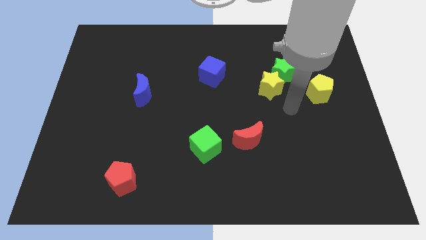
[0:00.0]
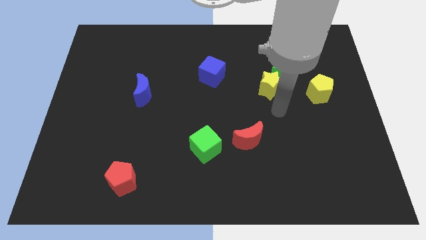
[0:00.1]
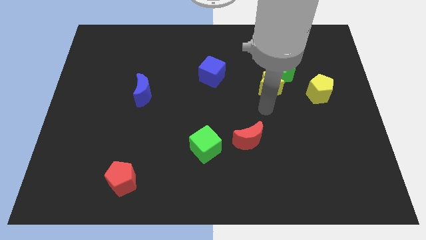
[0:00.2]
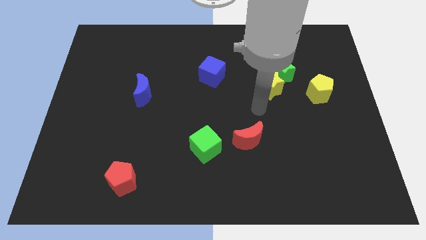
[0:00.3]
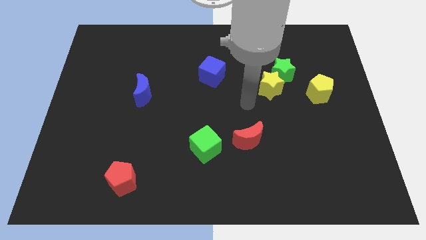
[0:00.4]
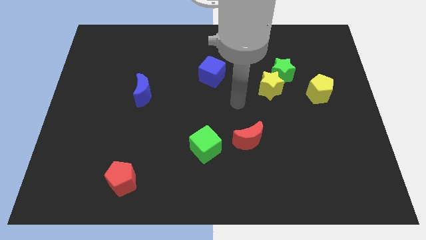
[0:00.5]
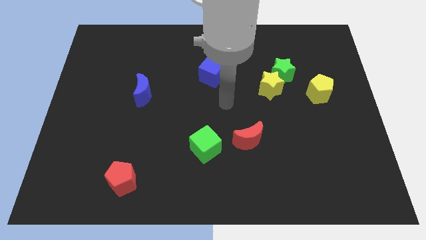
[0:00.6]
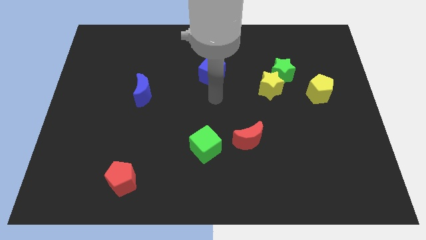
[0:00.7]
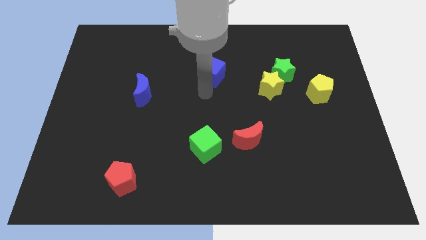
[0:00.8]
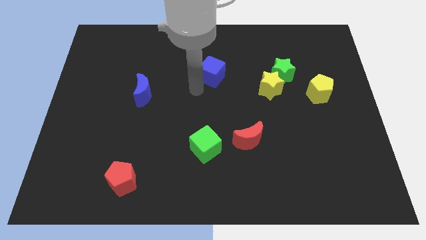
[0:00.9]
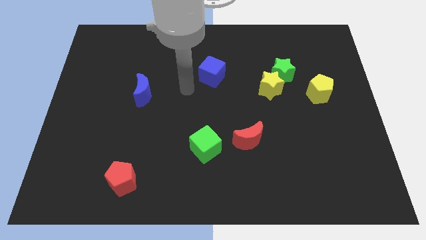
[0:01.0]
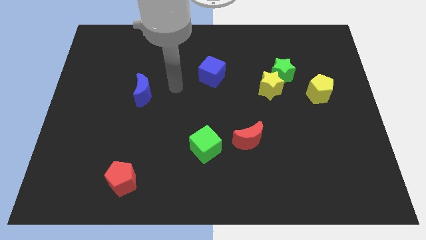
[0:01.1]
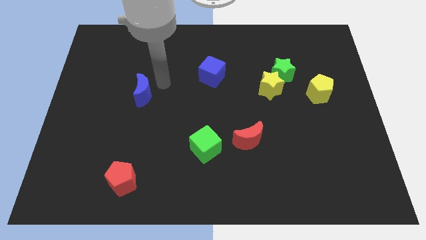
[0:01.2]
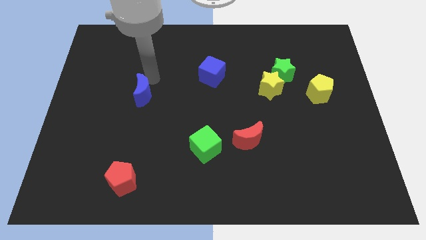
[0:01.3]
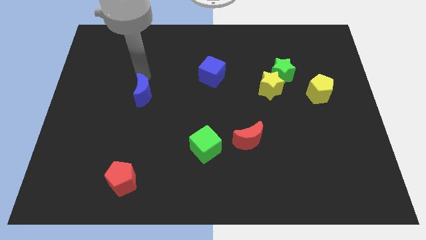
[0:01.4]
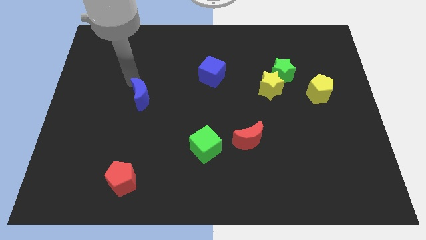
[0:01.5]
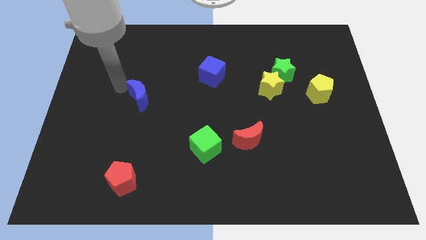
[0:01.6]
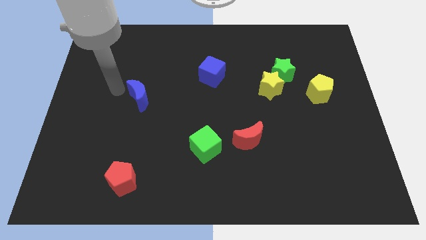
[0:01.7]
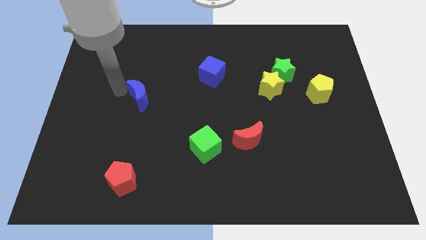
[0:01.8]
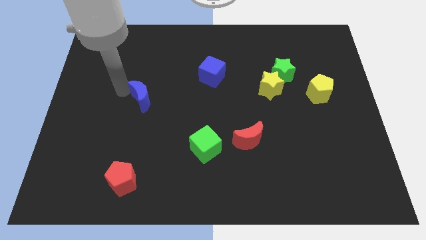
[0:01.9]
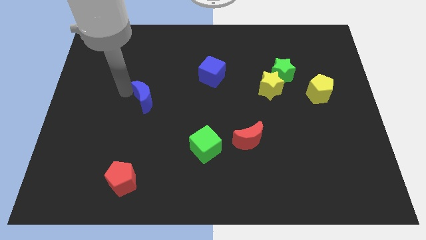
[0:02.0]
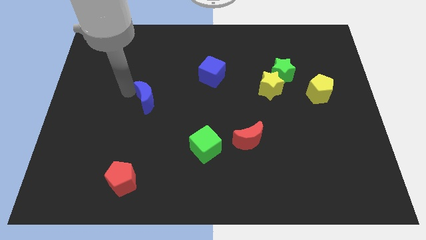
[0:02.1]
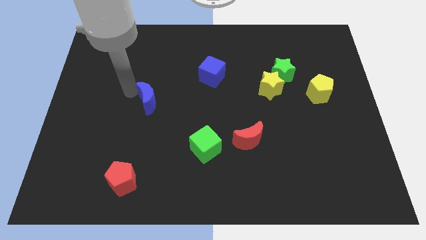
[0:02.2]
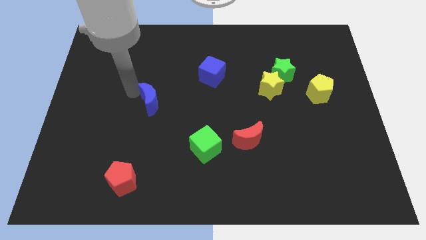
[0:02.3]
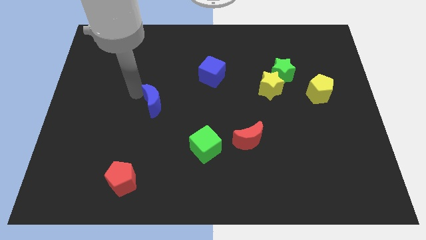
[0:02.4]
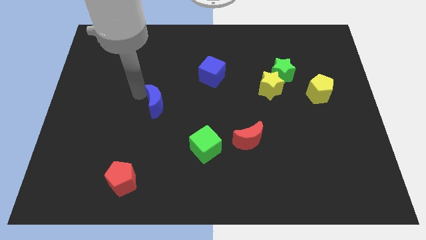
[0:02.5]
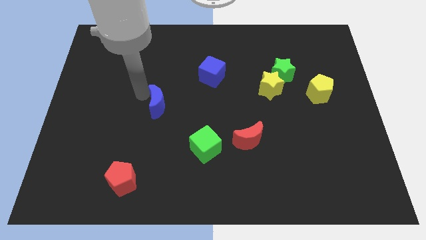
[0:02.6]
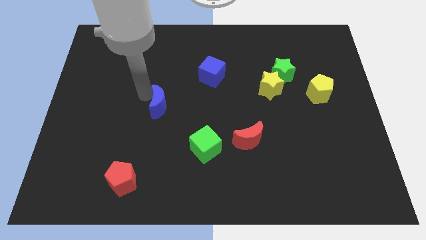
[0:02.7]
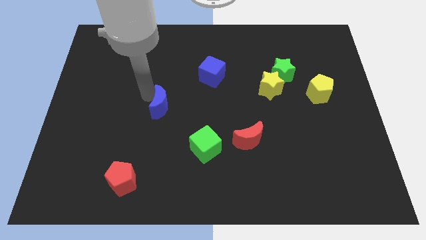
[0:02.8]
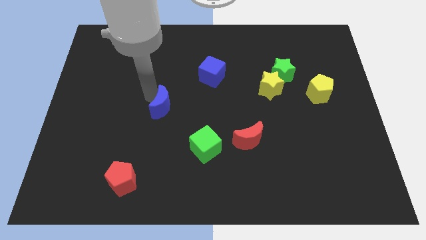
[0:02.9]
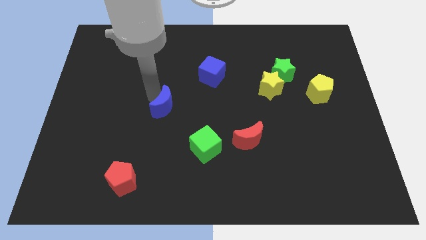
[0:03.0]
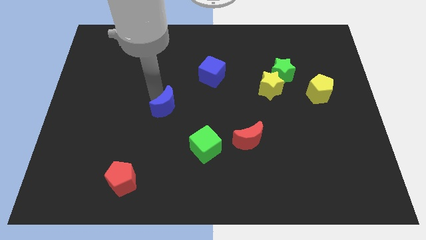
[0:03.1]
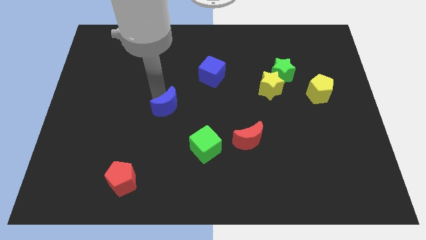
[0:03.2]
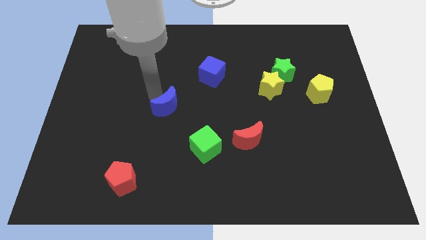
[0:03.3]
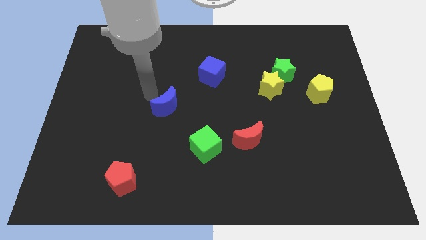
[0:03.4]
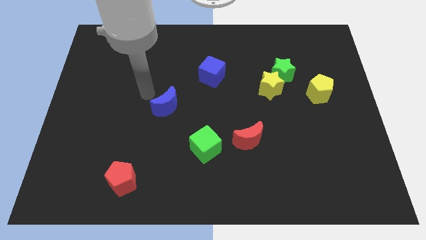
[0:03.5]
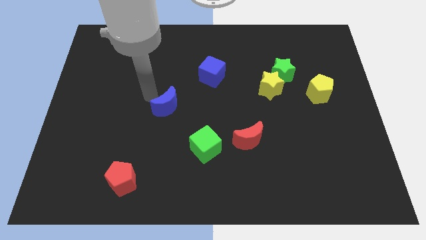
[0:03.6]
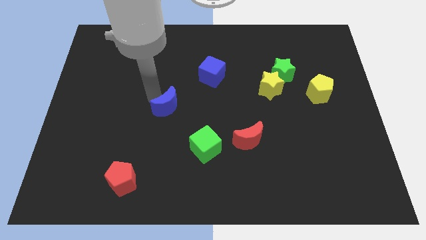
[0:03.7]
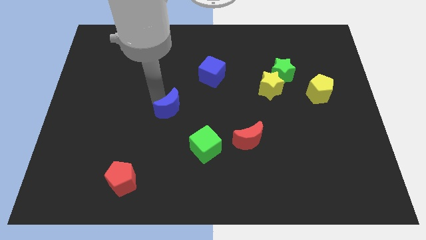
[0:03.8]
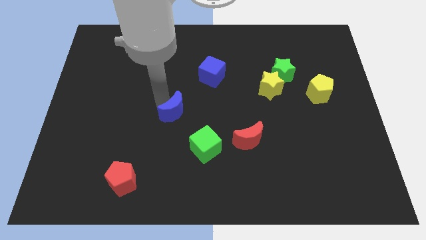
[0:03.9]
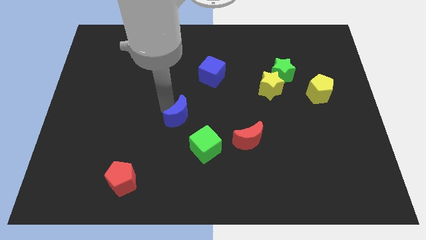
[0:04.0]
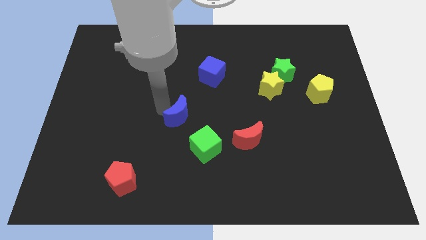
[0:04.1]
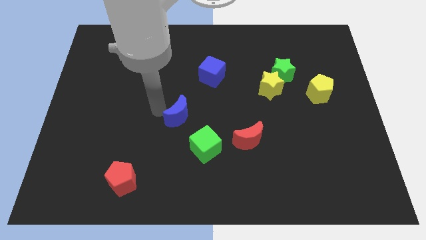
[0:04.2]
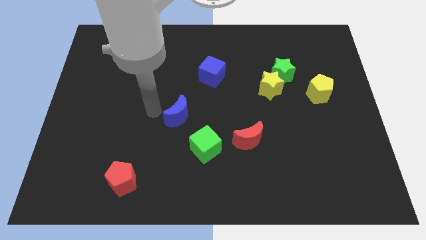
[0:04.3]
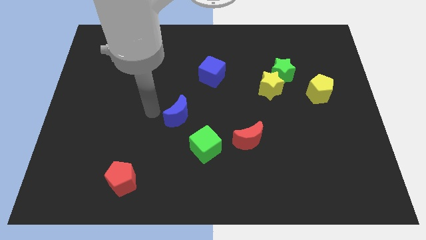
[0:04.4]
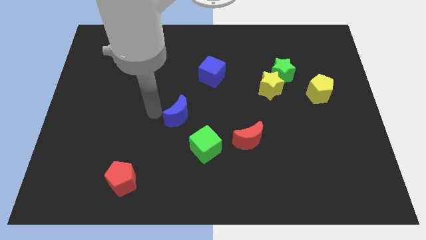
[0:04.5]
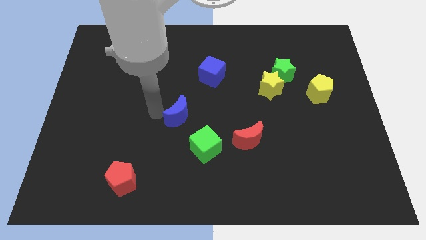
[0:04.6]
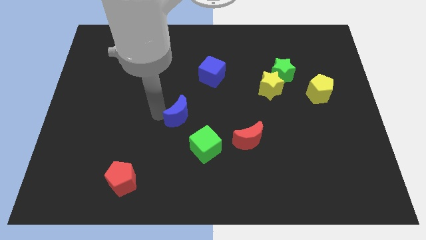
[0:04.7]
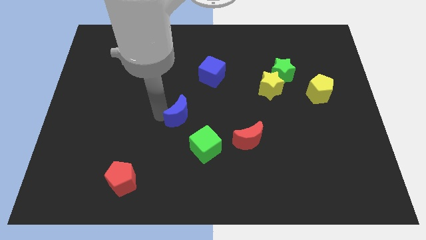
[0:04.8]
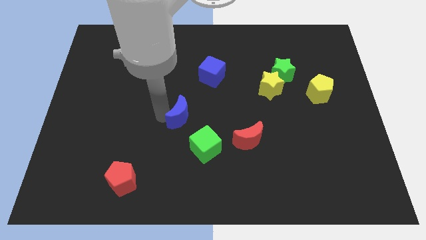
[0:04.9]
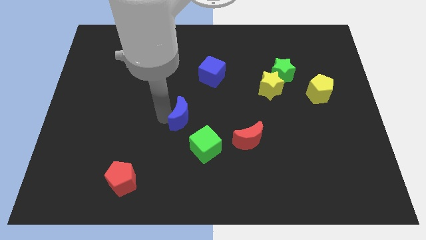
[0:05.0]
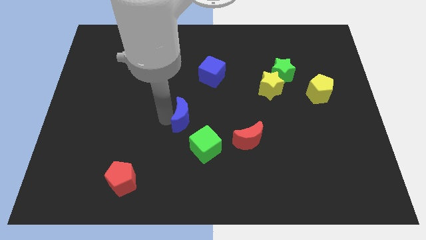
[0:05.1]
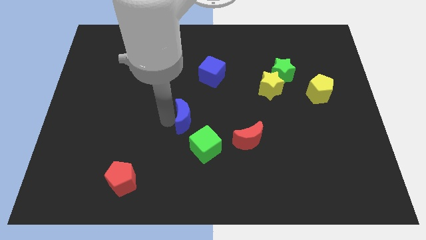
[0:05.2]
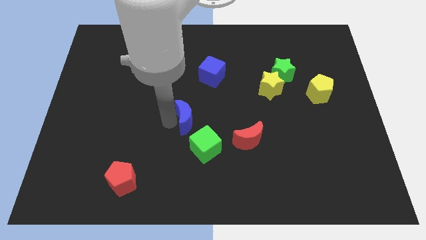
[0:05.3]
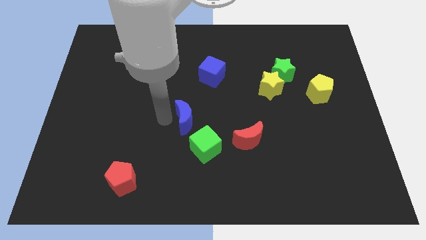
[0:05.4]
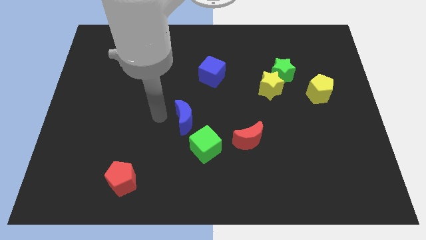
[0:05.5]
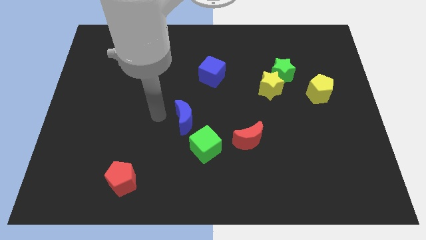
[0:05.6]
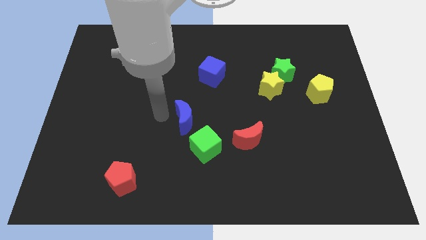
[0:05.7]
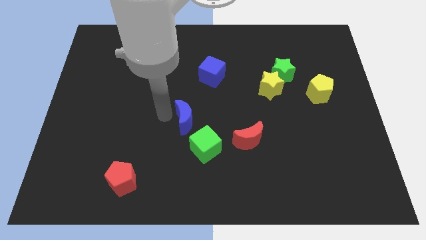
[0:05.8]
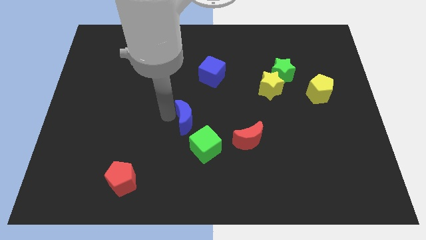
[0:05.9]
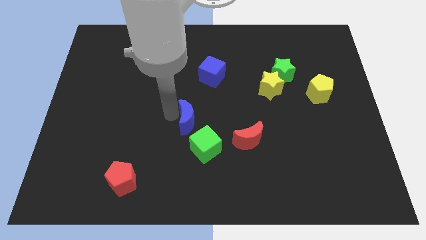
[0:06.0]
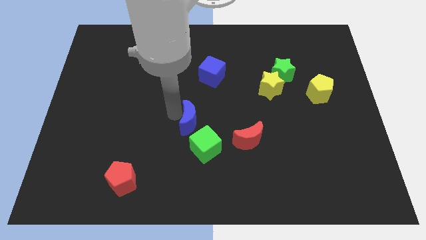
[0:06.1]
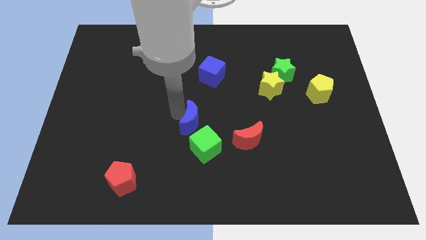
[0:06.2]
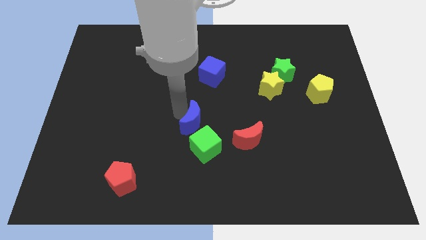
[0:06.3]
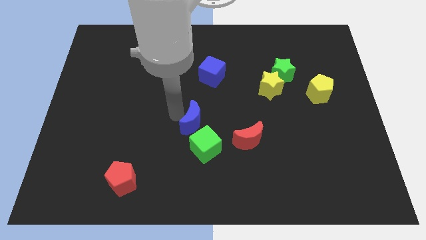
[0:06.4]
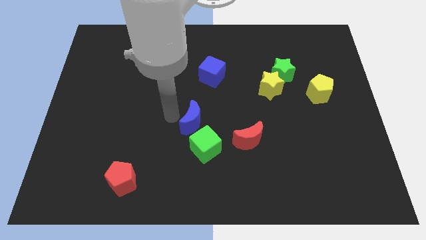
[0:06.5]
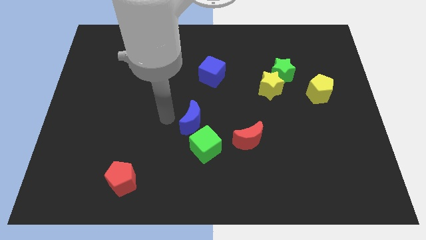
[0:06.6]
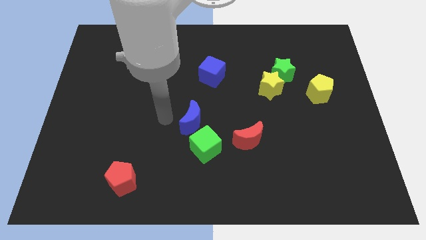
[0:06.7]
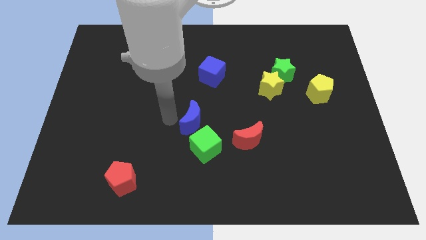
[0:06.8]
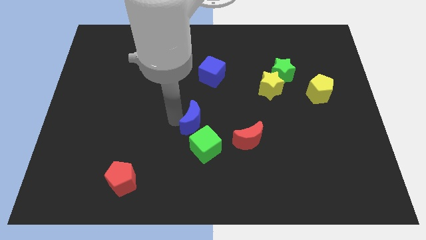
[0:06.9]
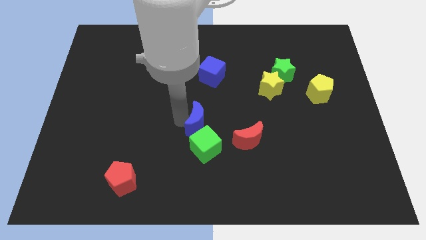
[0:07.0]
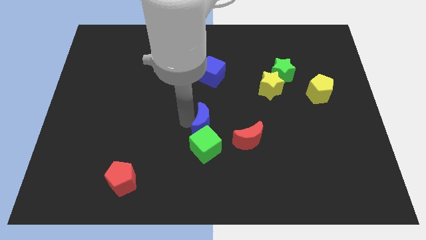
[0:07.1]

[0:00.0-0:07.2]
put the blue moon to the top right side of the green cube

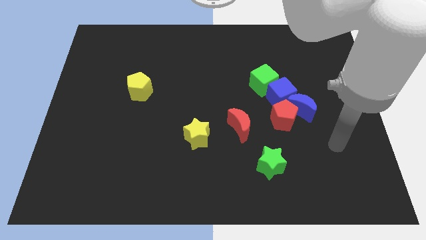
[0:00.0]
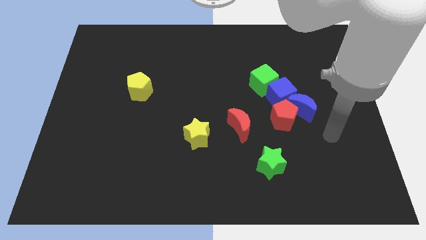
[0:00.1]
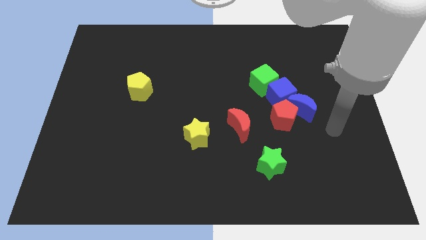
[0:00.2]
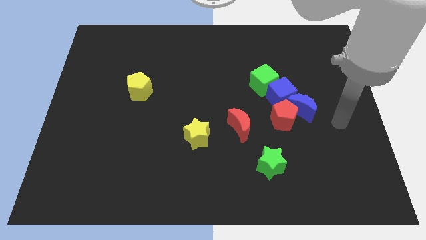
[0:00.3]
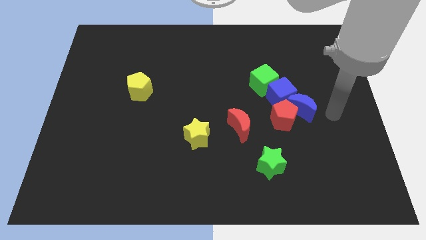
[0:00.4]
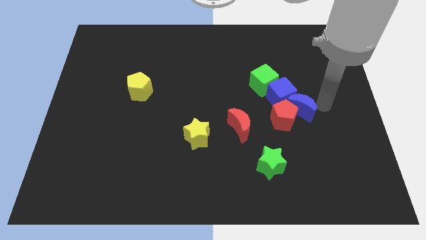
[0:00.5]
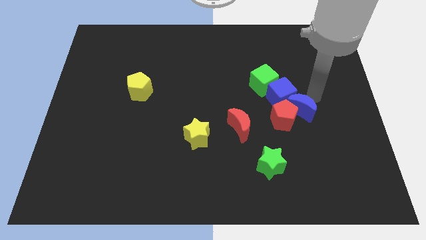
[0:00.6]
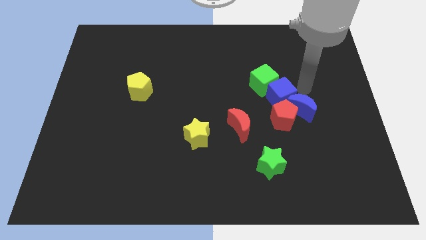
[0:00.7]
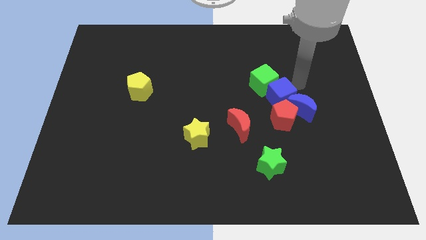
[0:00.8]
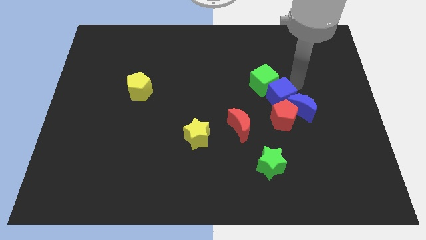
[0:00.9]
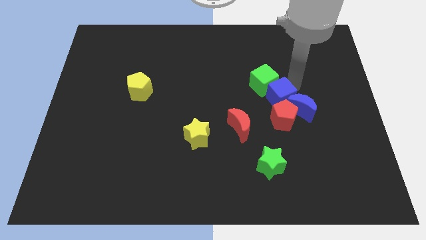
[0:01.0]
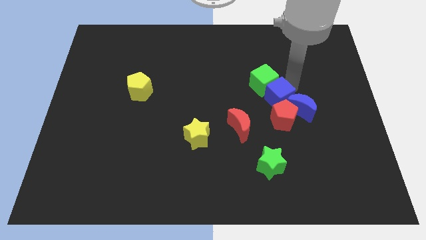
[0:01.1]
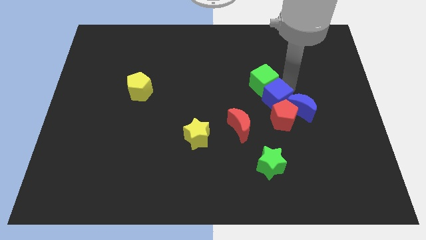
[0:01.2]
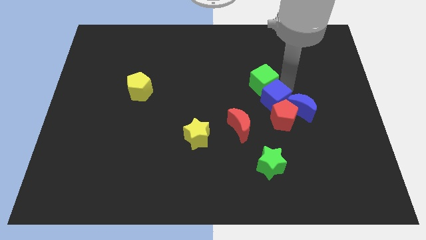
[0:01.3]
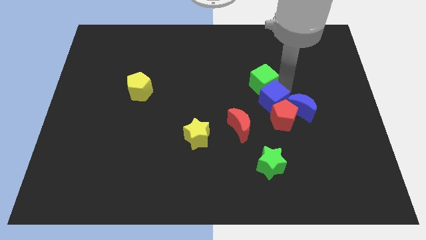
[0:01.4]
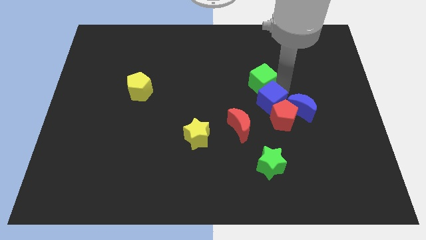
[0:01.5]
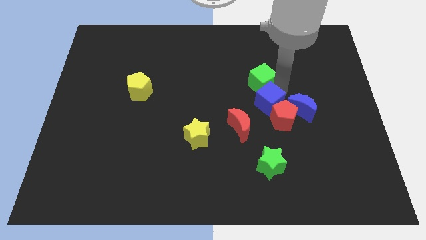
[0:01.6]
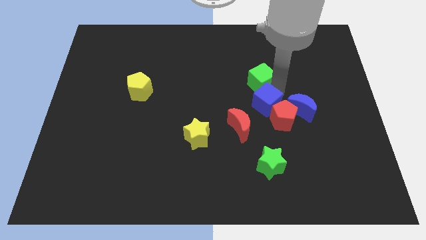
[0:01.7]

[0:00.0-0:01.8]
slide the blue cube above the green star
